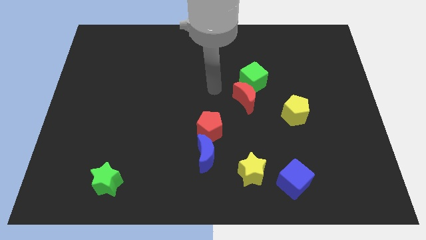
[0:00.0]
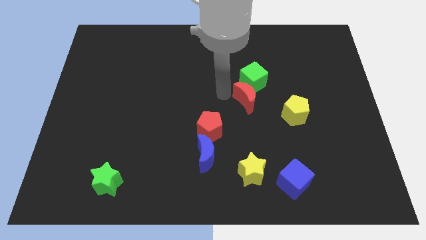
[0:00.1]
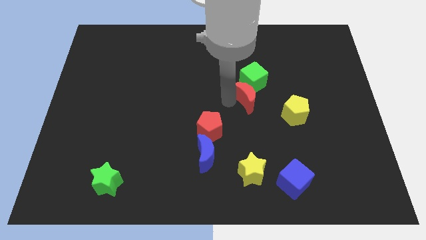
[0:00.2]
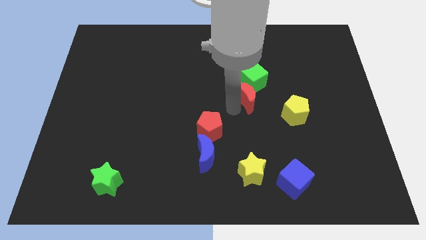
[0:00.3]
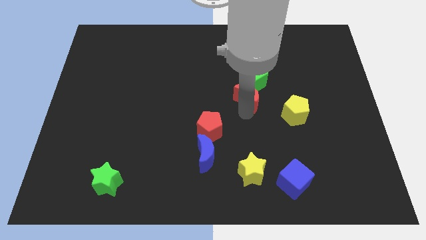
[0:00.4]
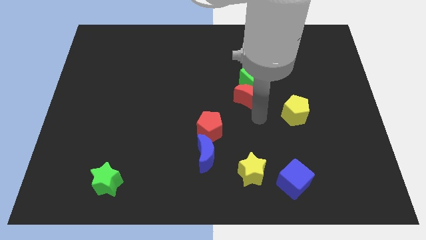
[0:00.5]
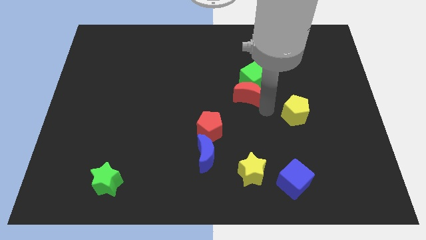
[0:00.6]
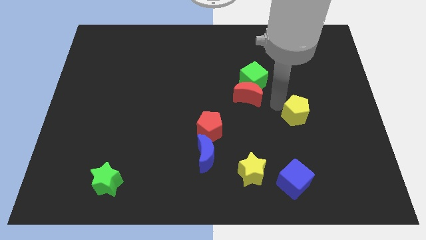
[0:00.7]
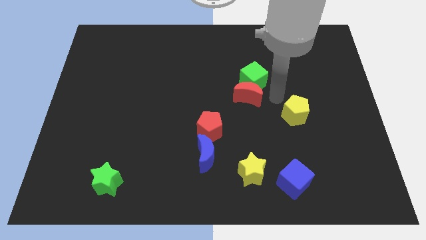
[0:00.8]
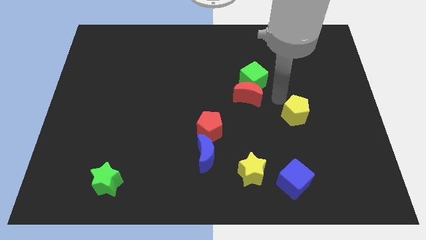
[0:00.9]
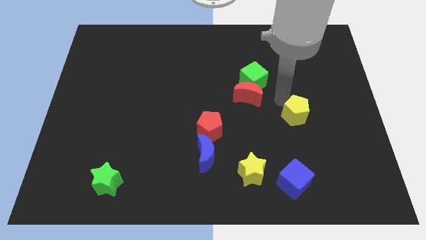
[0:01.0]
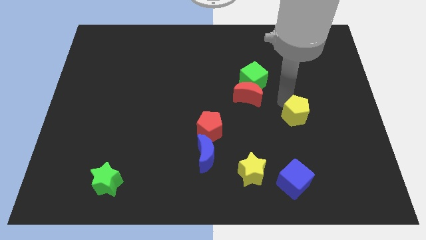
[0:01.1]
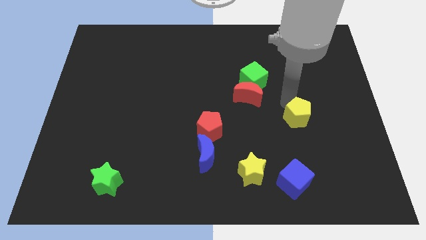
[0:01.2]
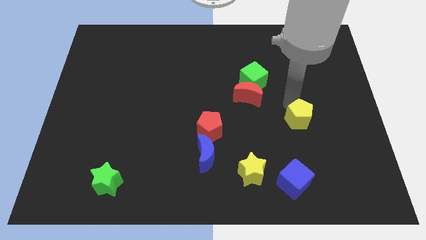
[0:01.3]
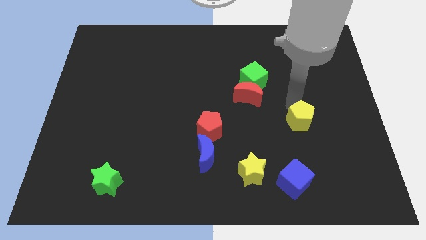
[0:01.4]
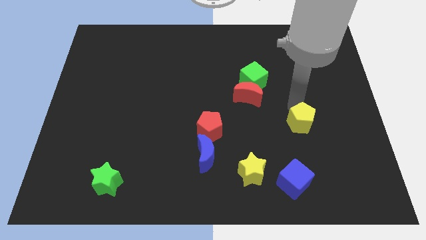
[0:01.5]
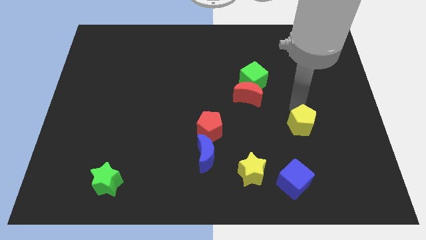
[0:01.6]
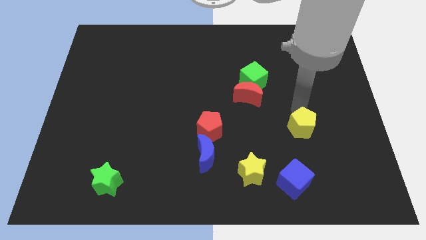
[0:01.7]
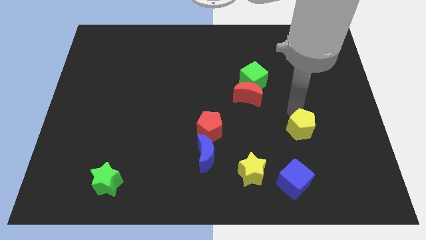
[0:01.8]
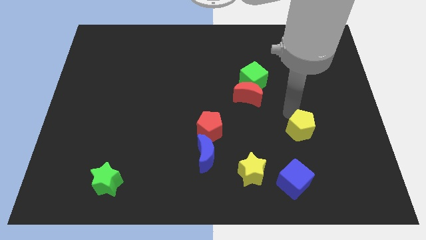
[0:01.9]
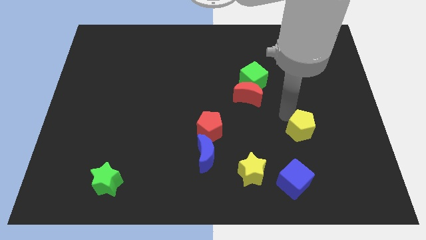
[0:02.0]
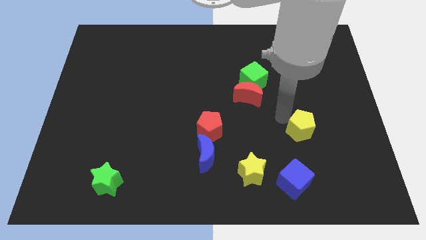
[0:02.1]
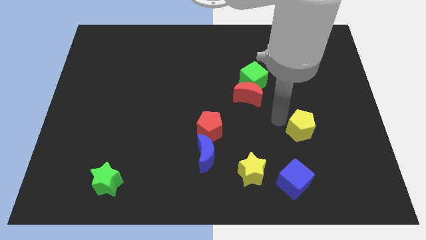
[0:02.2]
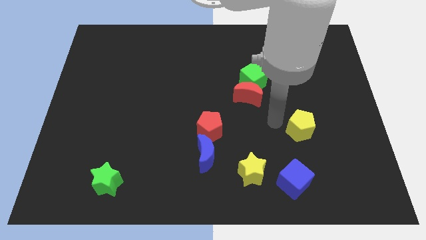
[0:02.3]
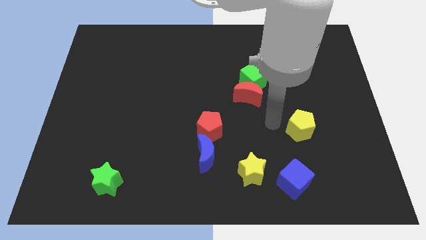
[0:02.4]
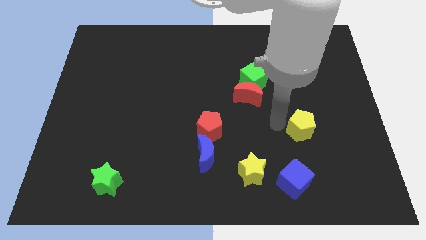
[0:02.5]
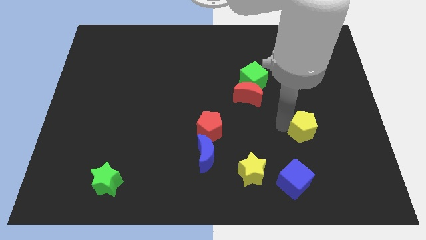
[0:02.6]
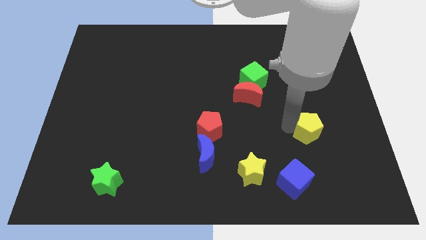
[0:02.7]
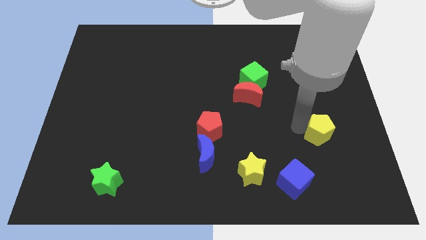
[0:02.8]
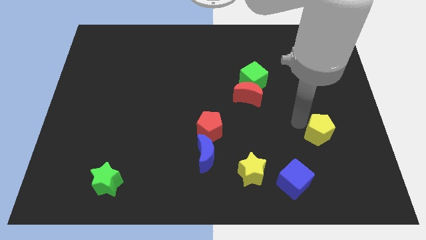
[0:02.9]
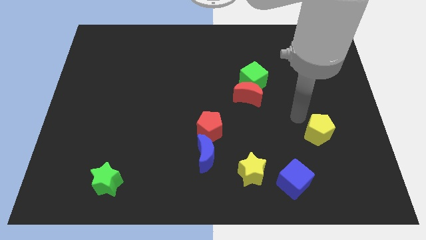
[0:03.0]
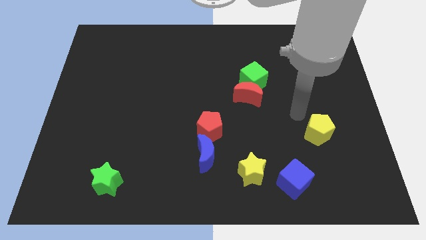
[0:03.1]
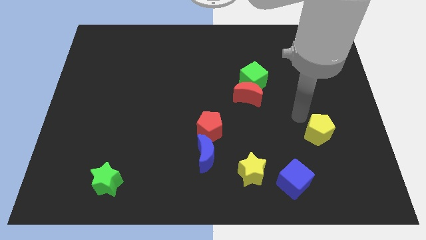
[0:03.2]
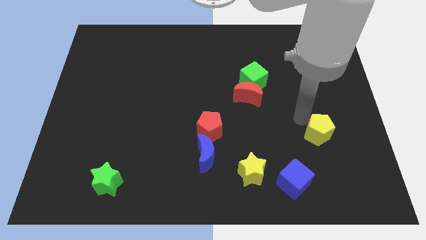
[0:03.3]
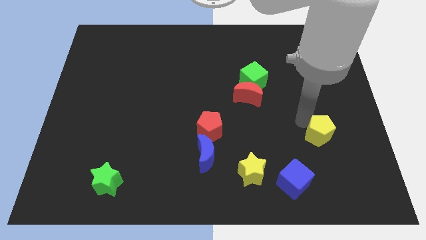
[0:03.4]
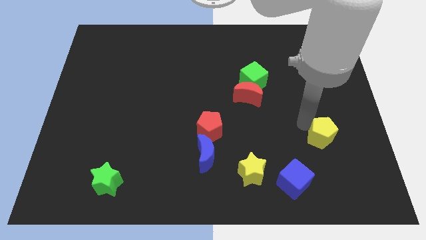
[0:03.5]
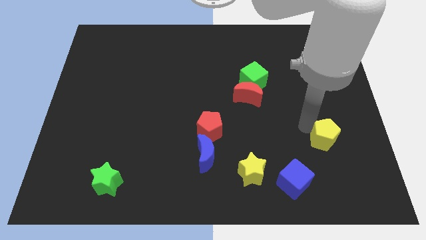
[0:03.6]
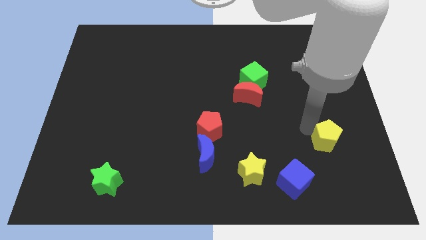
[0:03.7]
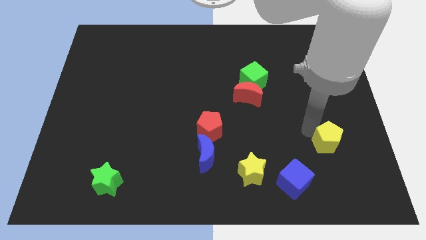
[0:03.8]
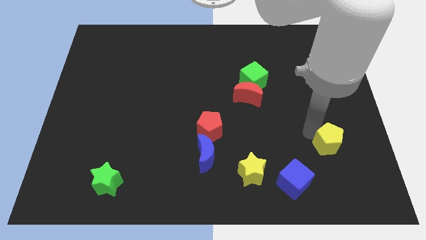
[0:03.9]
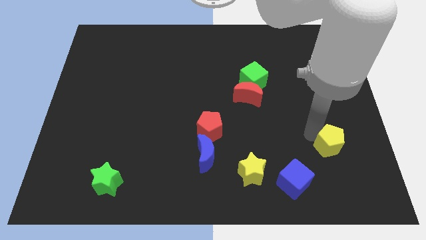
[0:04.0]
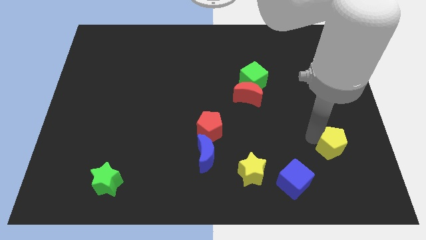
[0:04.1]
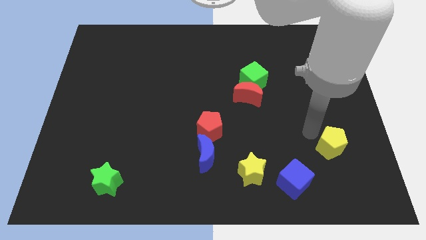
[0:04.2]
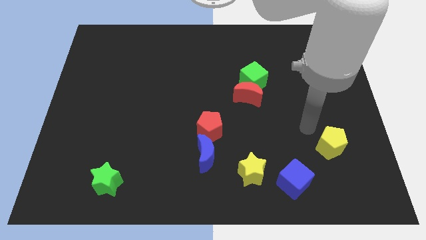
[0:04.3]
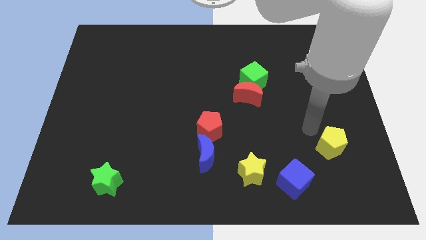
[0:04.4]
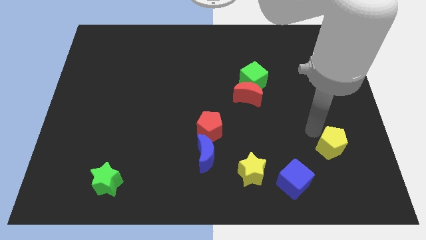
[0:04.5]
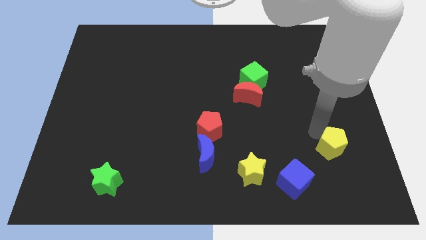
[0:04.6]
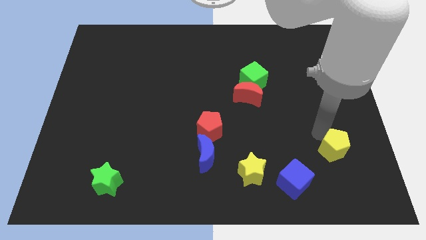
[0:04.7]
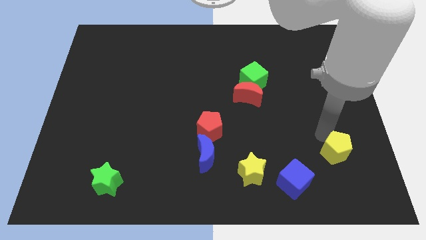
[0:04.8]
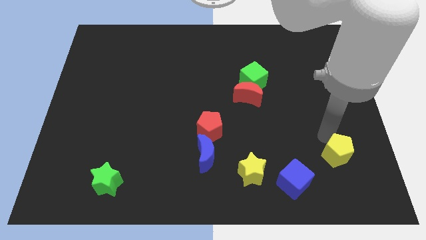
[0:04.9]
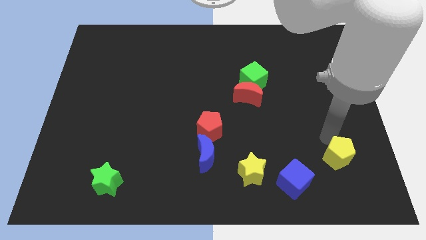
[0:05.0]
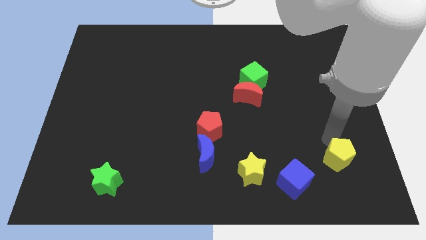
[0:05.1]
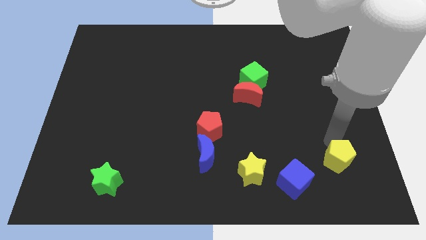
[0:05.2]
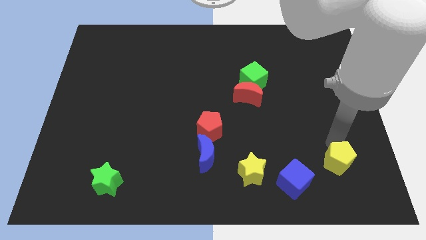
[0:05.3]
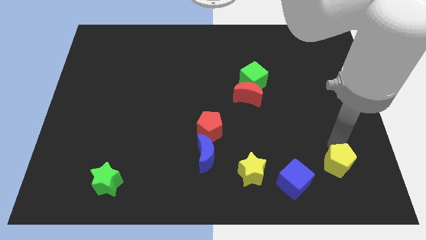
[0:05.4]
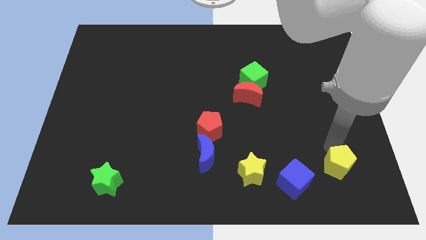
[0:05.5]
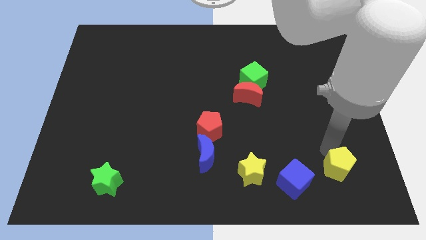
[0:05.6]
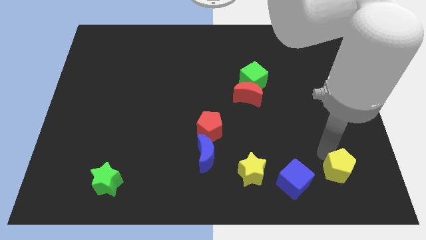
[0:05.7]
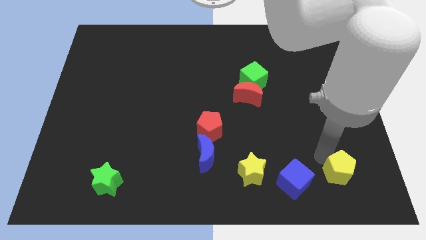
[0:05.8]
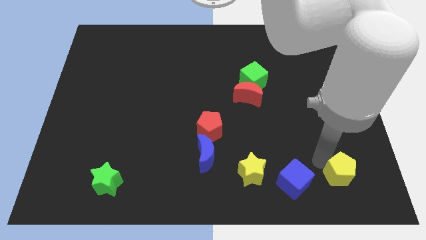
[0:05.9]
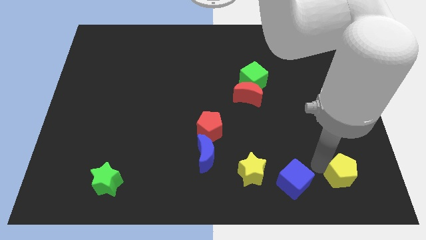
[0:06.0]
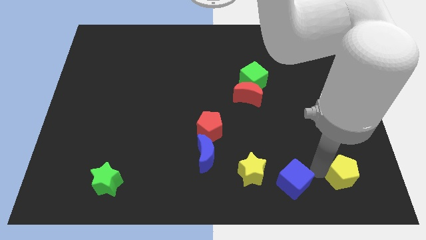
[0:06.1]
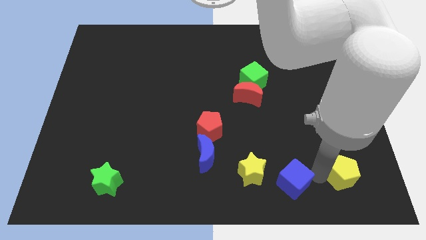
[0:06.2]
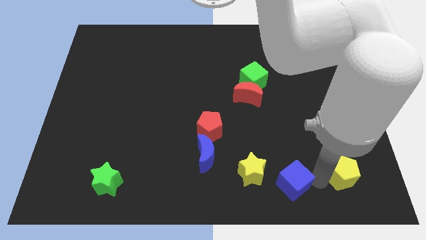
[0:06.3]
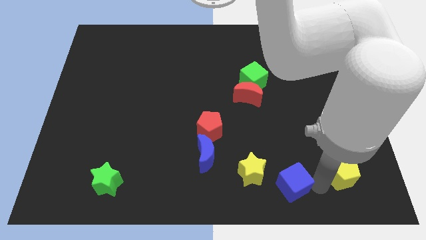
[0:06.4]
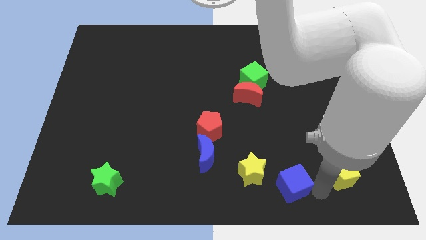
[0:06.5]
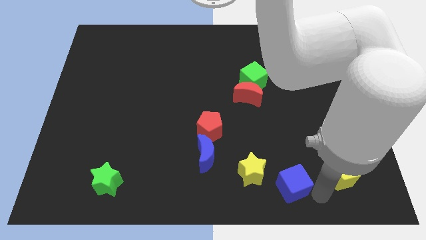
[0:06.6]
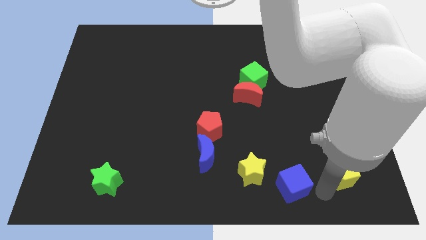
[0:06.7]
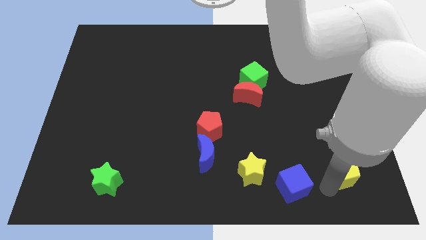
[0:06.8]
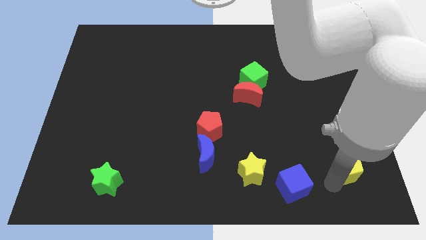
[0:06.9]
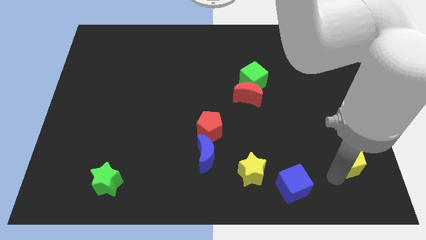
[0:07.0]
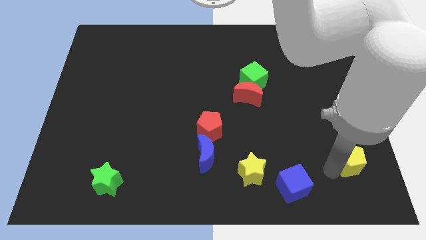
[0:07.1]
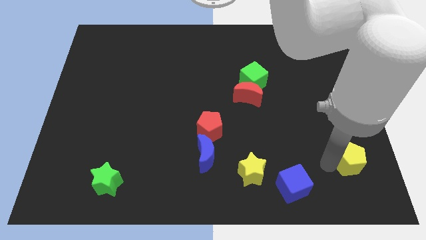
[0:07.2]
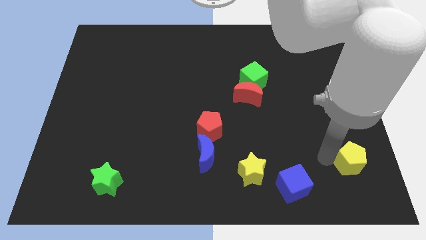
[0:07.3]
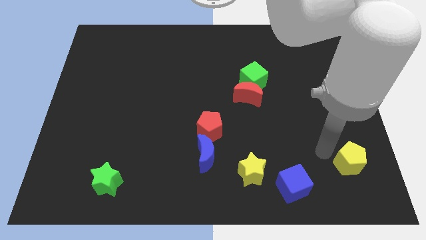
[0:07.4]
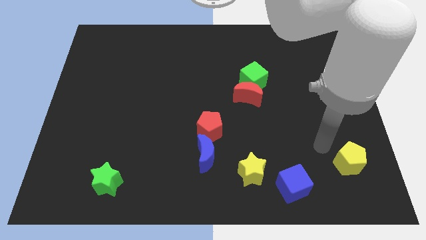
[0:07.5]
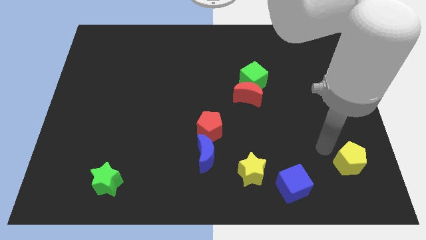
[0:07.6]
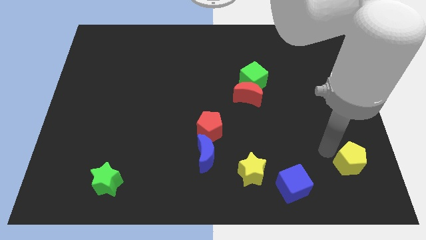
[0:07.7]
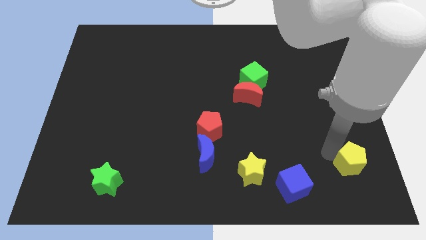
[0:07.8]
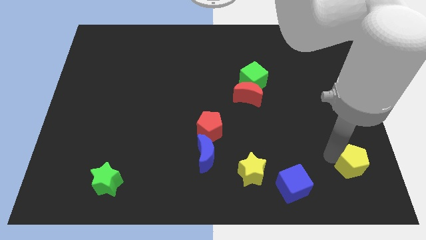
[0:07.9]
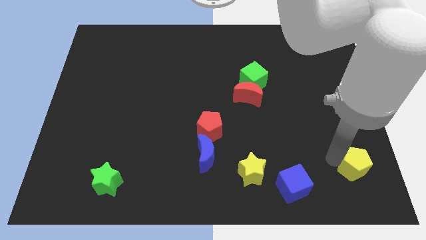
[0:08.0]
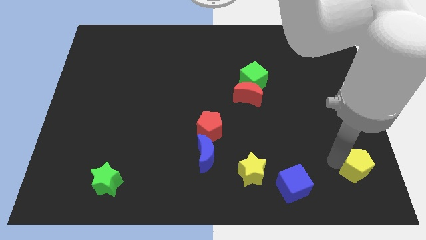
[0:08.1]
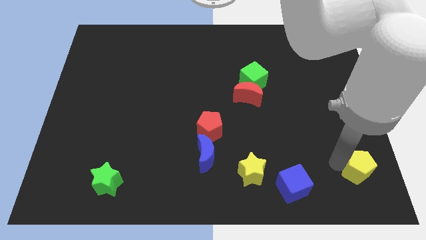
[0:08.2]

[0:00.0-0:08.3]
put the yellow pentagon to the bottom right
